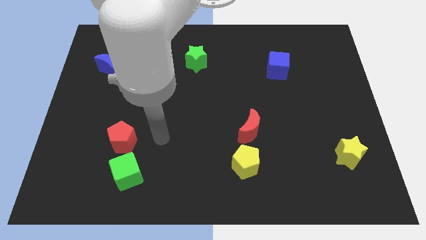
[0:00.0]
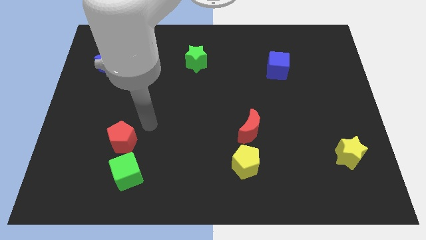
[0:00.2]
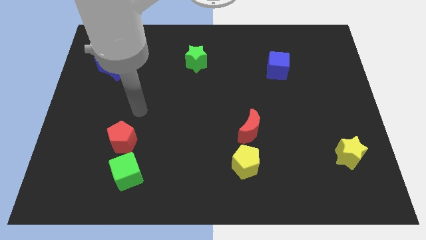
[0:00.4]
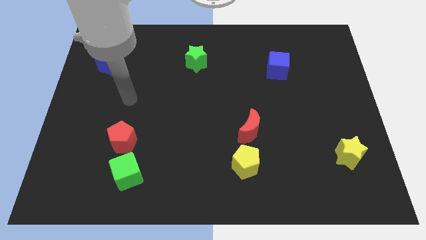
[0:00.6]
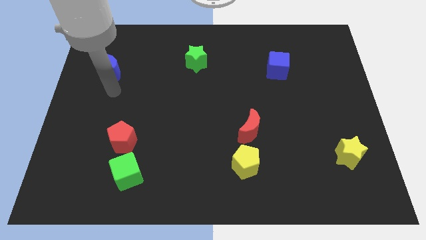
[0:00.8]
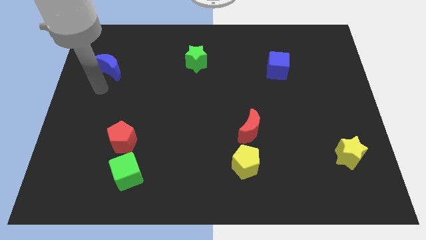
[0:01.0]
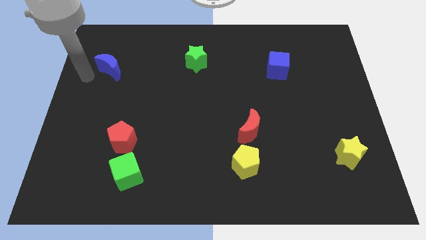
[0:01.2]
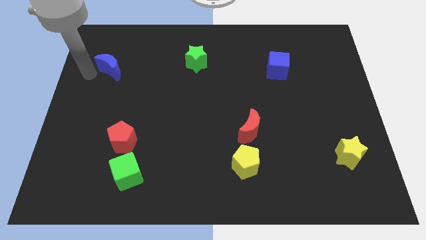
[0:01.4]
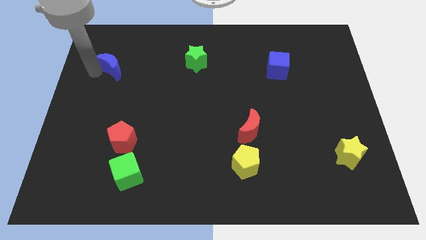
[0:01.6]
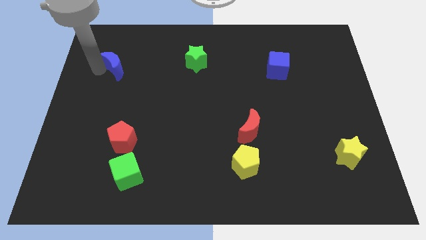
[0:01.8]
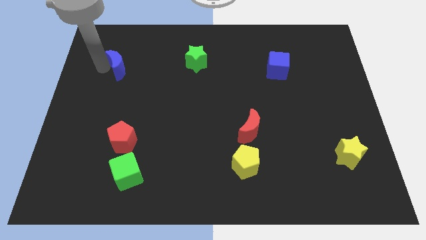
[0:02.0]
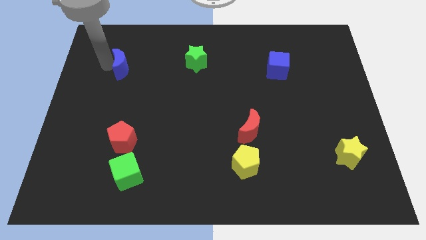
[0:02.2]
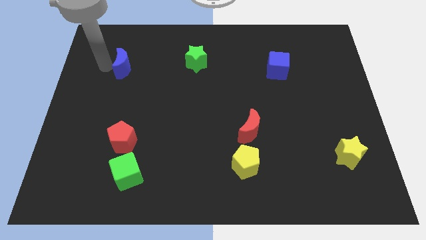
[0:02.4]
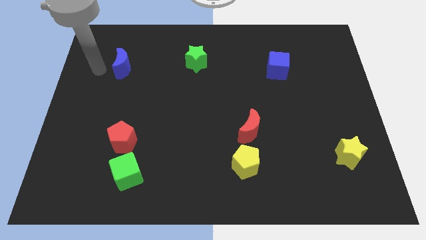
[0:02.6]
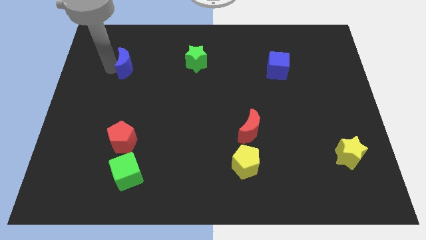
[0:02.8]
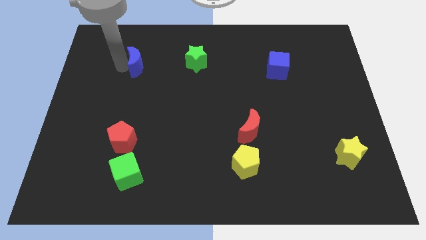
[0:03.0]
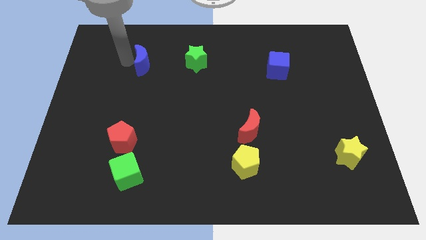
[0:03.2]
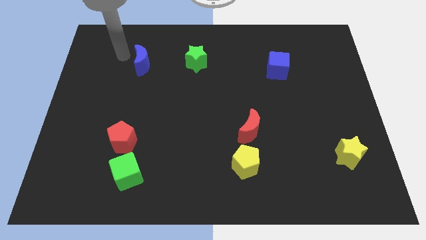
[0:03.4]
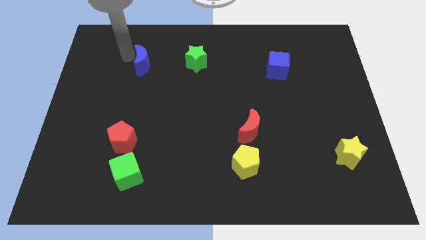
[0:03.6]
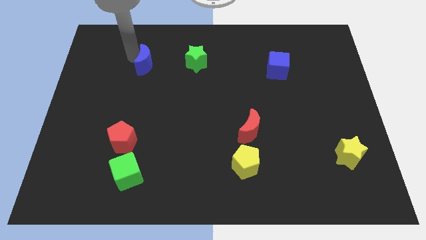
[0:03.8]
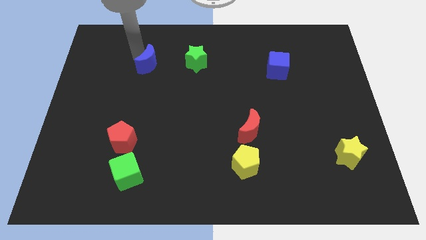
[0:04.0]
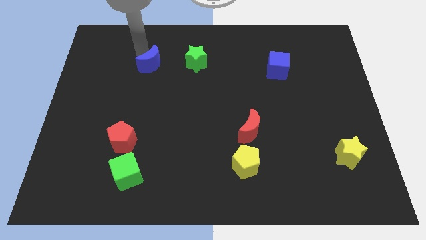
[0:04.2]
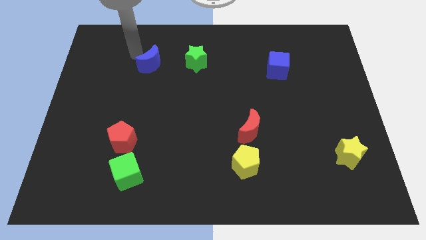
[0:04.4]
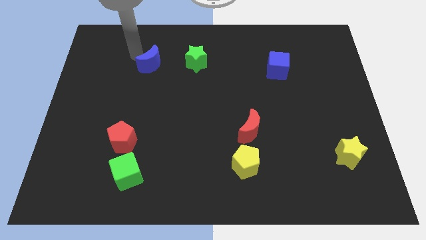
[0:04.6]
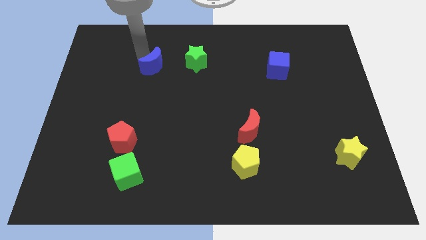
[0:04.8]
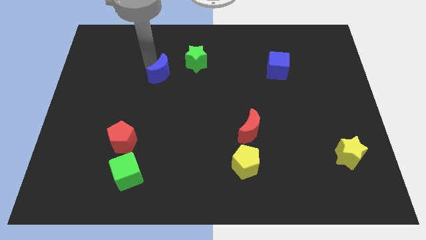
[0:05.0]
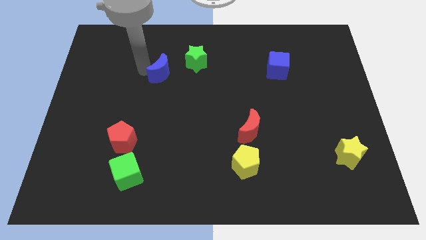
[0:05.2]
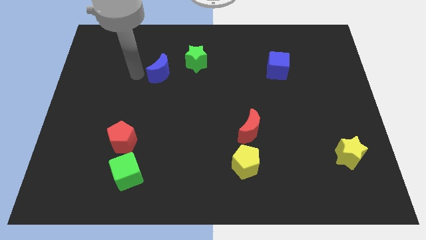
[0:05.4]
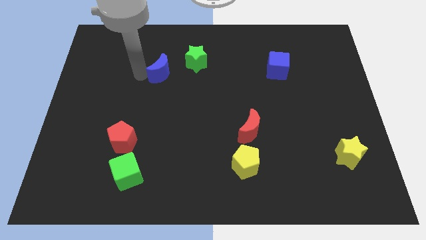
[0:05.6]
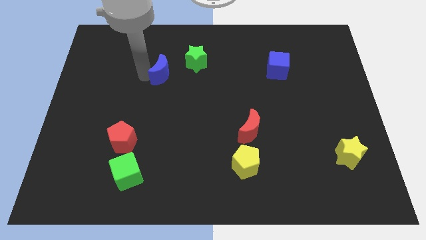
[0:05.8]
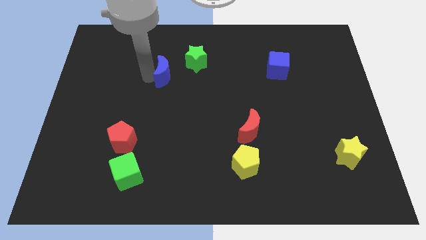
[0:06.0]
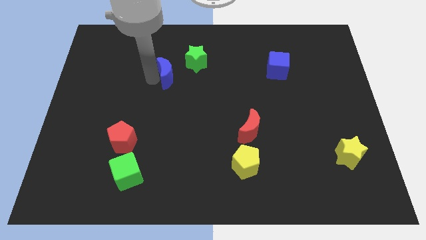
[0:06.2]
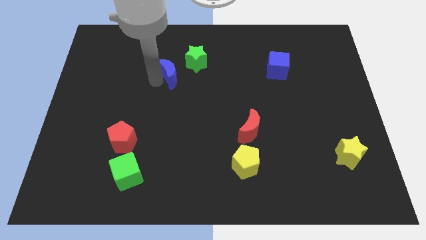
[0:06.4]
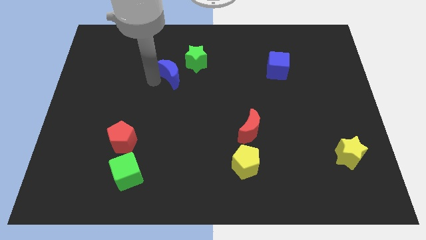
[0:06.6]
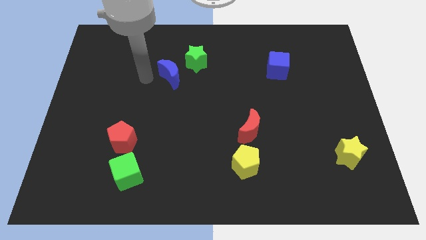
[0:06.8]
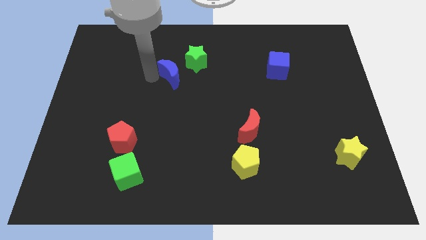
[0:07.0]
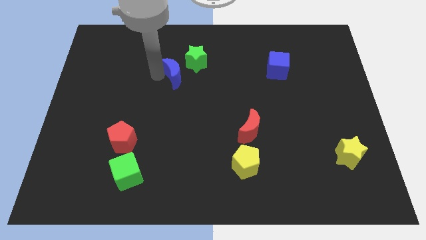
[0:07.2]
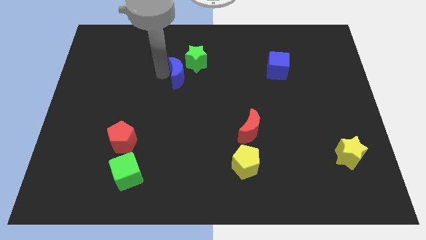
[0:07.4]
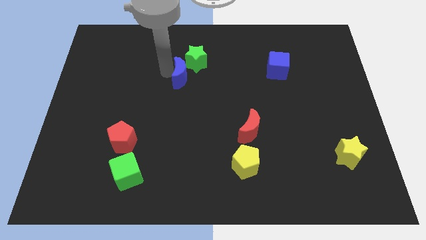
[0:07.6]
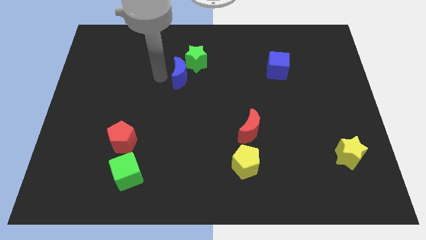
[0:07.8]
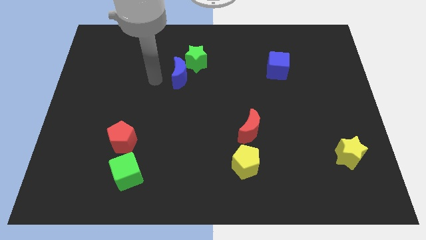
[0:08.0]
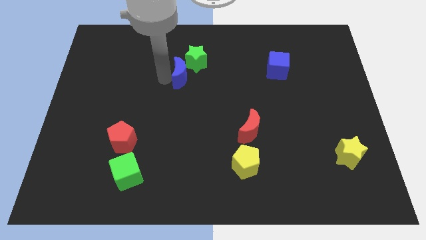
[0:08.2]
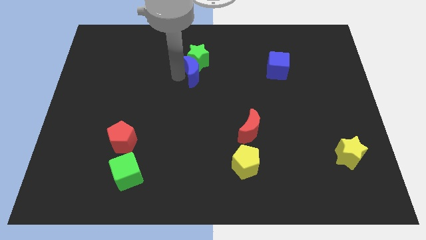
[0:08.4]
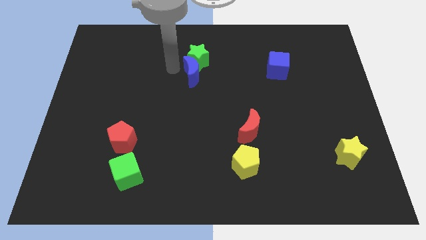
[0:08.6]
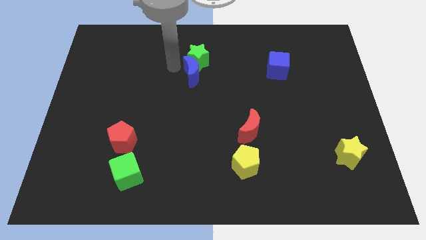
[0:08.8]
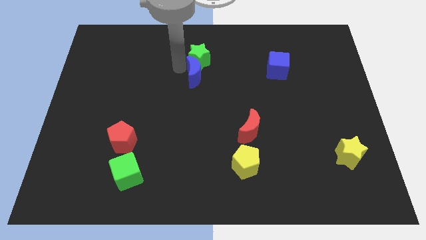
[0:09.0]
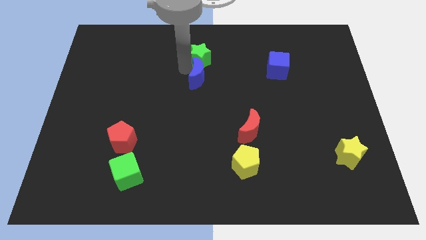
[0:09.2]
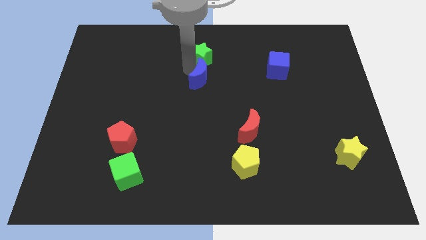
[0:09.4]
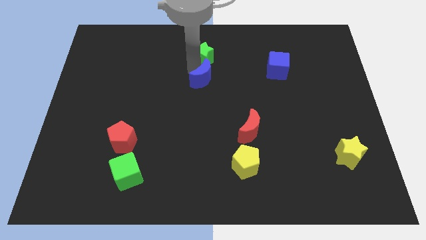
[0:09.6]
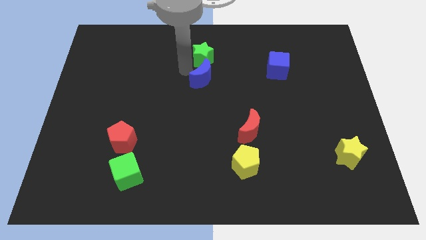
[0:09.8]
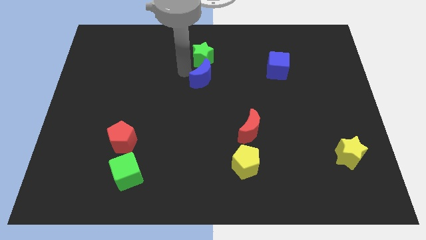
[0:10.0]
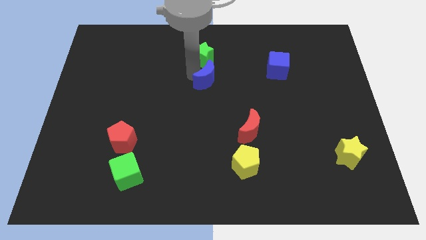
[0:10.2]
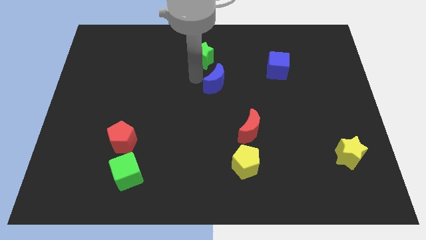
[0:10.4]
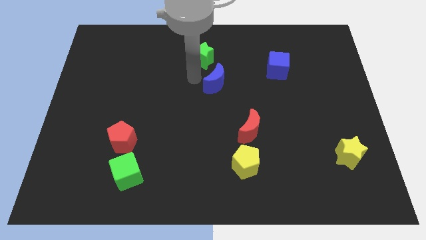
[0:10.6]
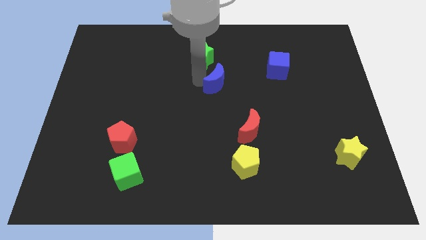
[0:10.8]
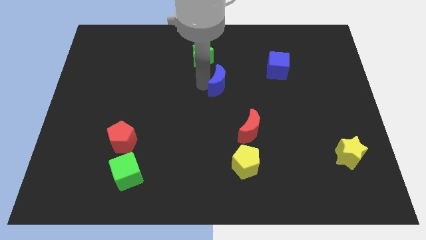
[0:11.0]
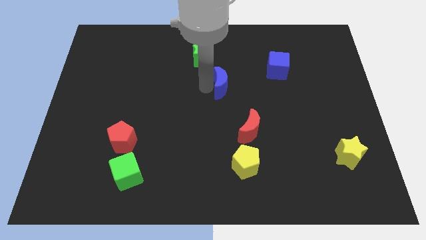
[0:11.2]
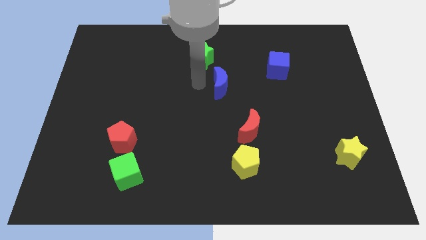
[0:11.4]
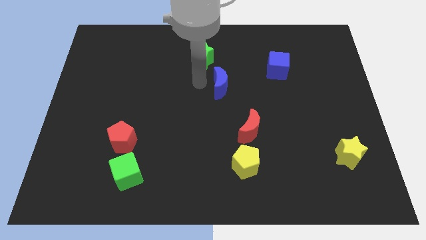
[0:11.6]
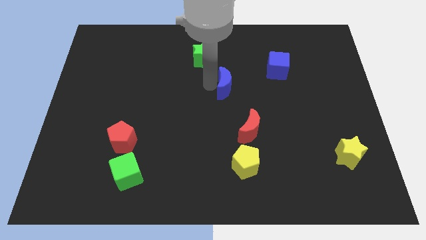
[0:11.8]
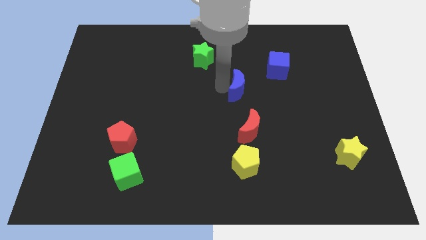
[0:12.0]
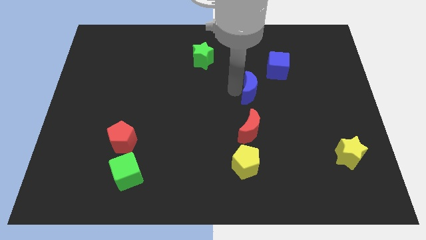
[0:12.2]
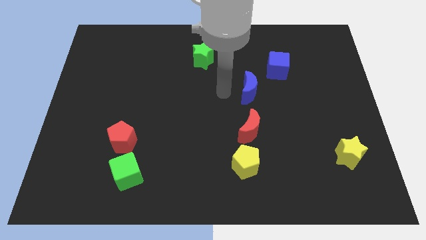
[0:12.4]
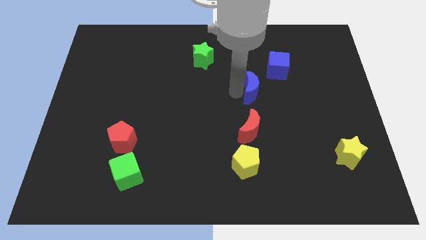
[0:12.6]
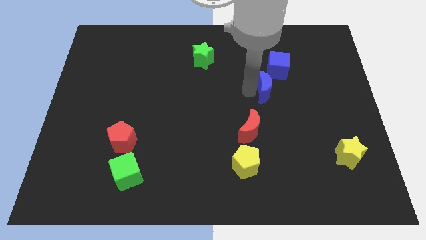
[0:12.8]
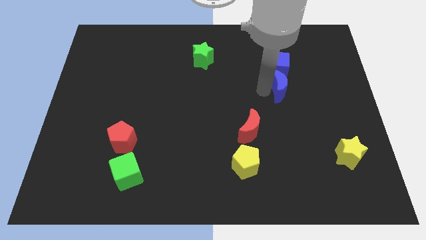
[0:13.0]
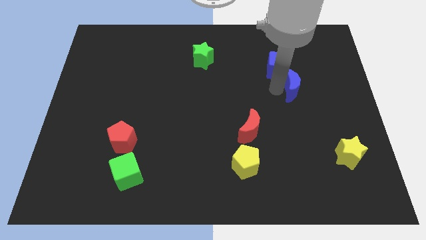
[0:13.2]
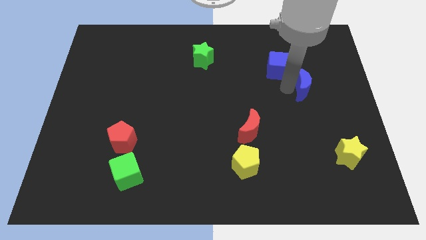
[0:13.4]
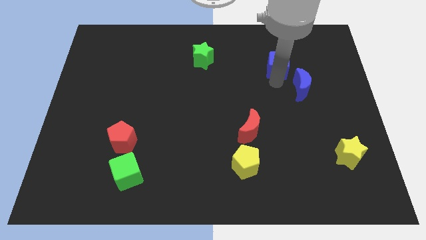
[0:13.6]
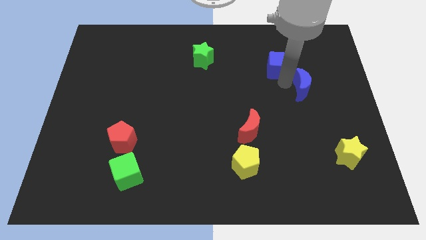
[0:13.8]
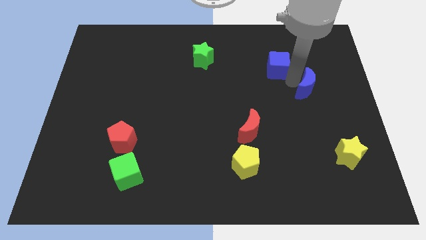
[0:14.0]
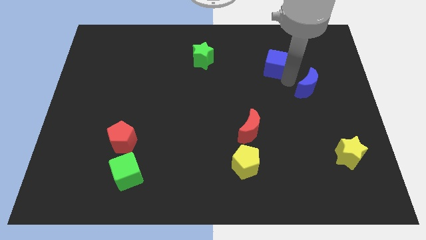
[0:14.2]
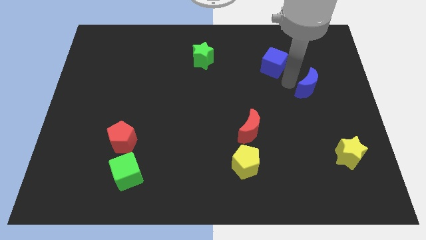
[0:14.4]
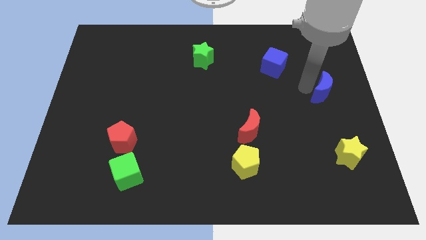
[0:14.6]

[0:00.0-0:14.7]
slide the blue moon to the right side of the board

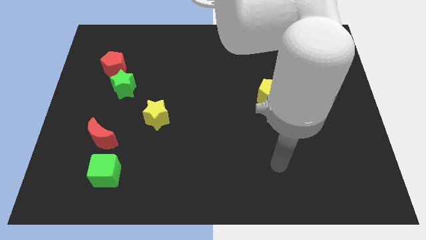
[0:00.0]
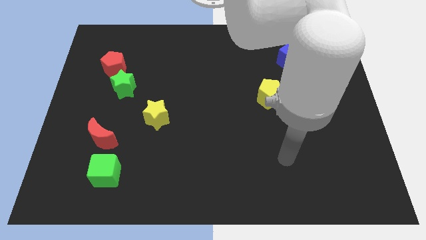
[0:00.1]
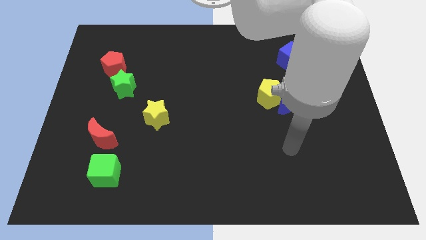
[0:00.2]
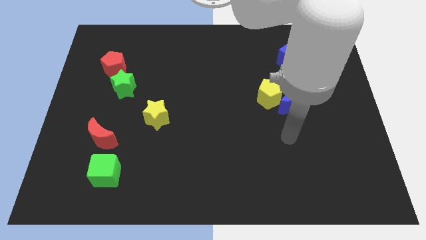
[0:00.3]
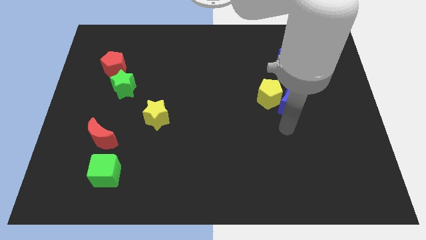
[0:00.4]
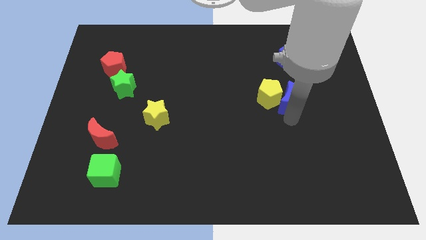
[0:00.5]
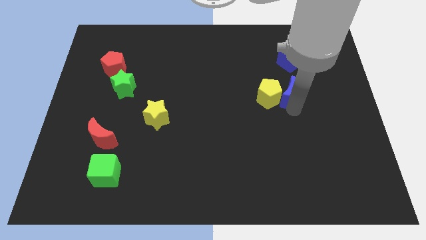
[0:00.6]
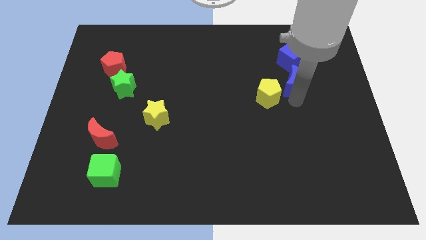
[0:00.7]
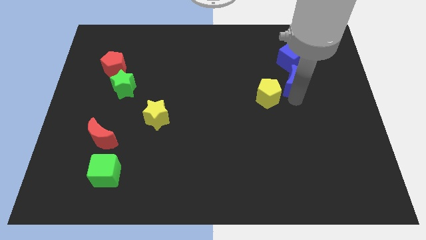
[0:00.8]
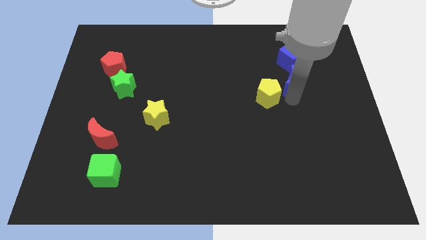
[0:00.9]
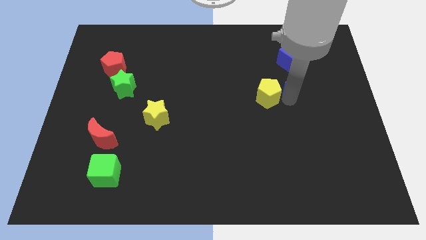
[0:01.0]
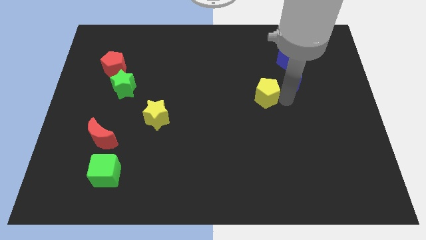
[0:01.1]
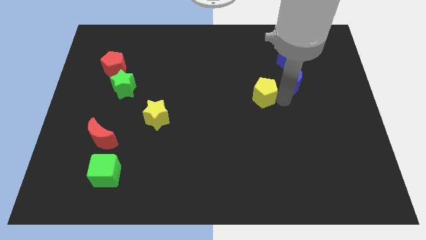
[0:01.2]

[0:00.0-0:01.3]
push the yellow pentagon to the middle of the board
